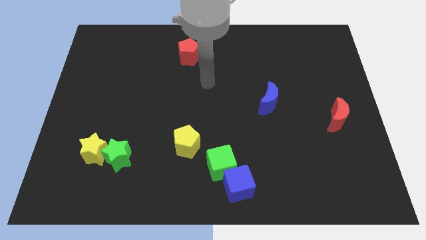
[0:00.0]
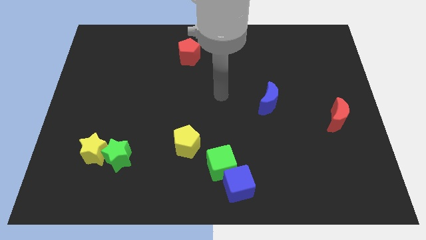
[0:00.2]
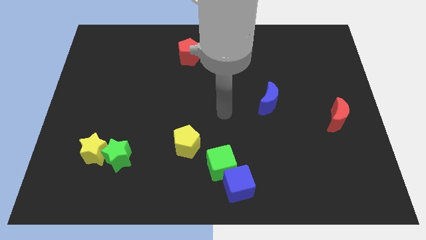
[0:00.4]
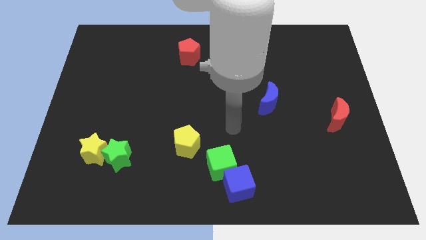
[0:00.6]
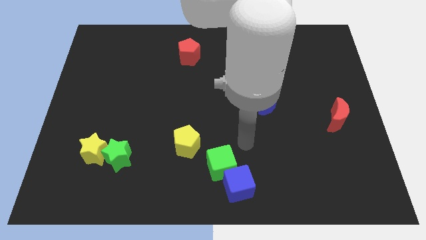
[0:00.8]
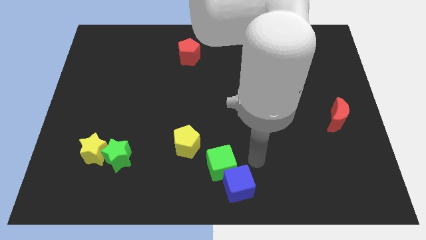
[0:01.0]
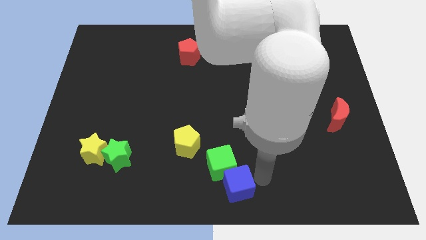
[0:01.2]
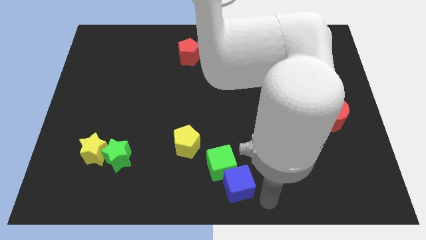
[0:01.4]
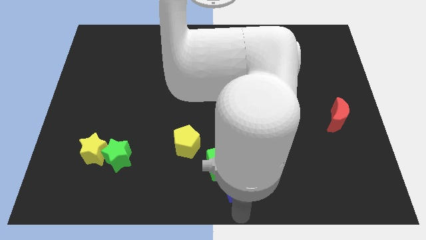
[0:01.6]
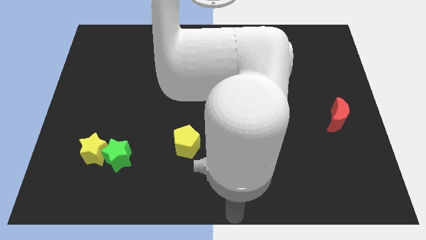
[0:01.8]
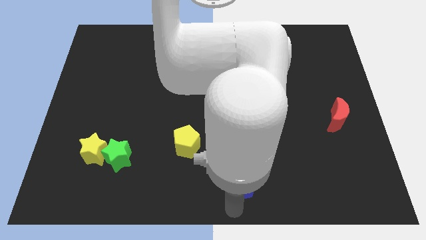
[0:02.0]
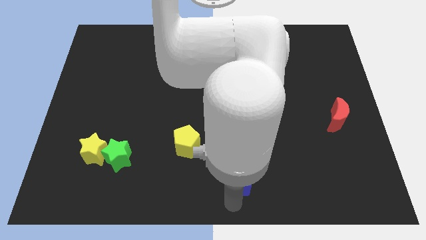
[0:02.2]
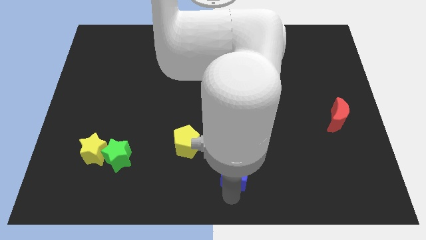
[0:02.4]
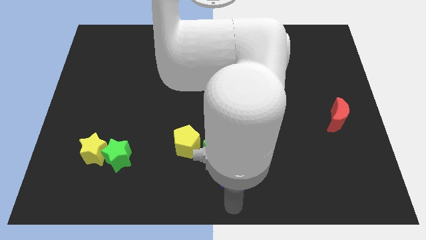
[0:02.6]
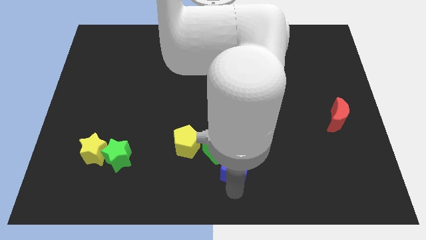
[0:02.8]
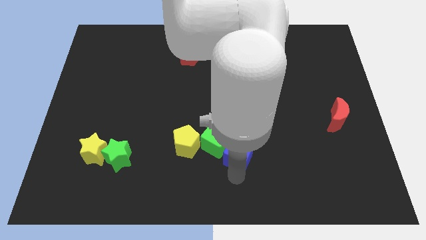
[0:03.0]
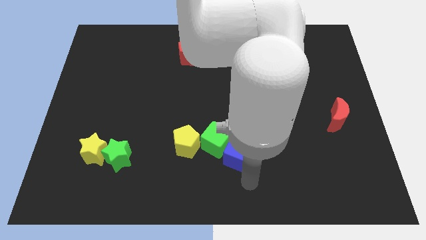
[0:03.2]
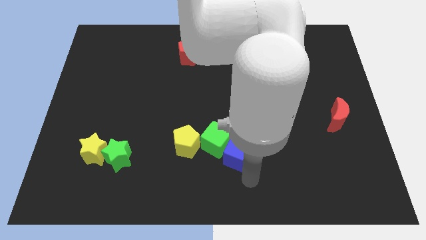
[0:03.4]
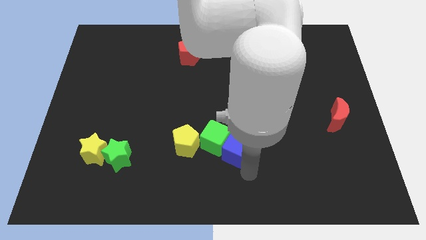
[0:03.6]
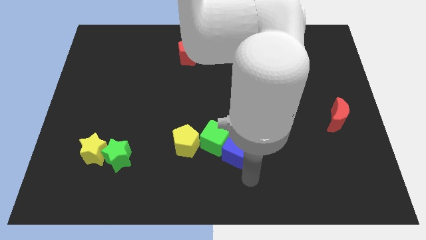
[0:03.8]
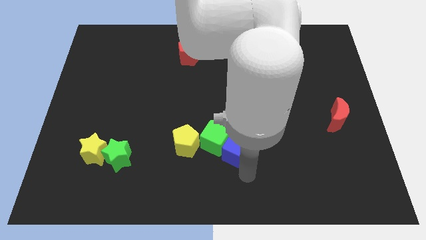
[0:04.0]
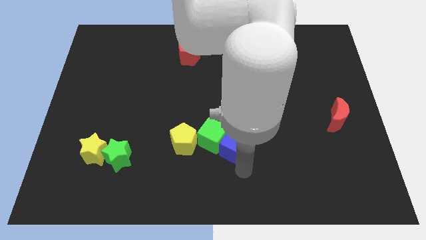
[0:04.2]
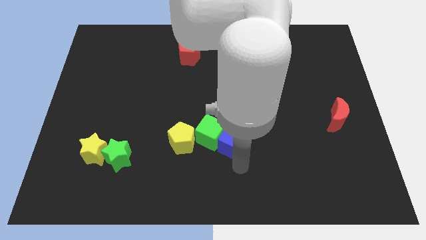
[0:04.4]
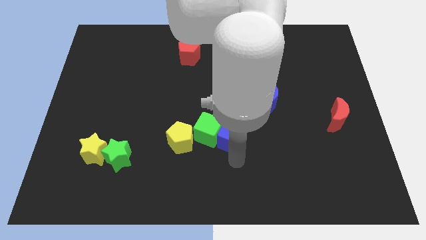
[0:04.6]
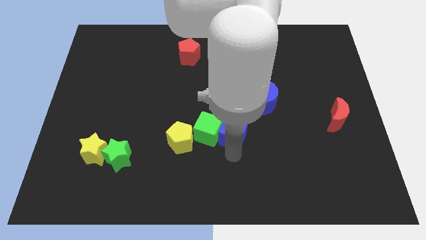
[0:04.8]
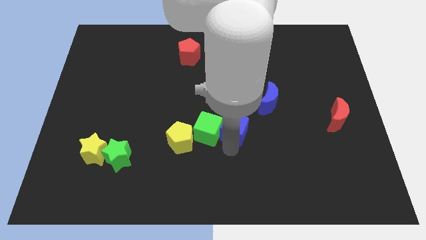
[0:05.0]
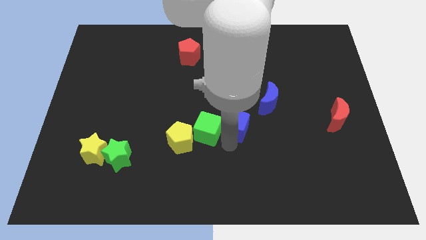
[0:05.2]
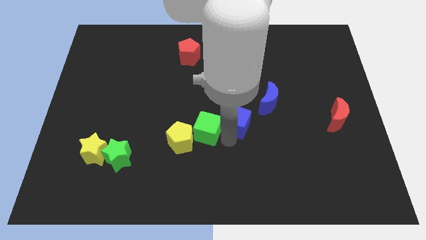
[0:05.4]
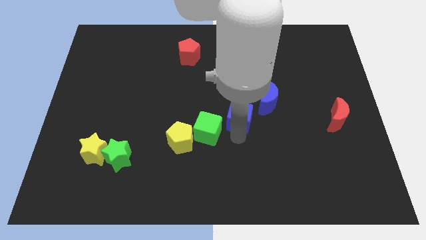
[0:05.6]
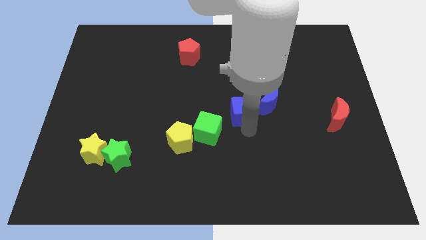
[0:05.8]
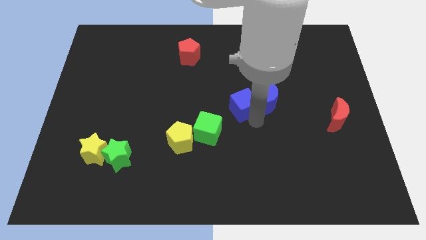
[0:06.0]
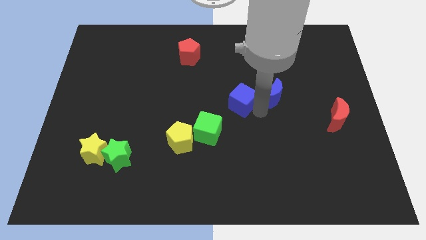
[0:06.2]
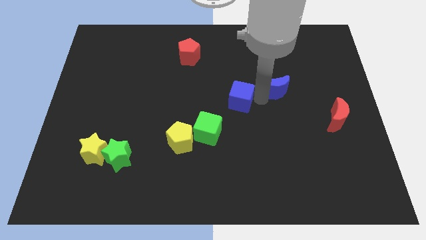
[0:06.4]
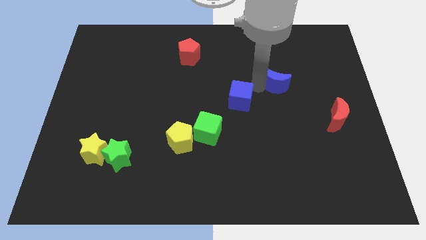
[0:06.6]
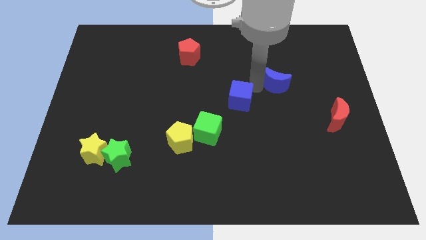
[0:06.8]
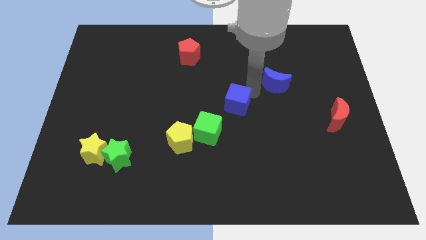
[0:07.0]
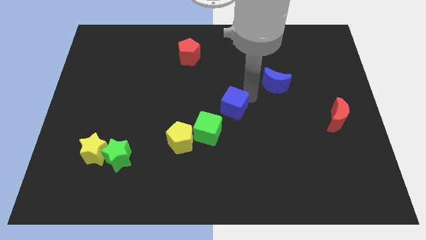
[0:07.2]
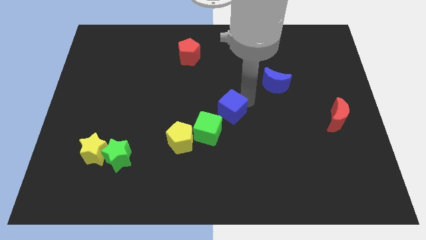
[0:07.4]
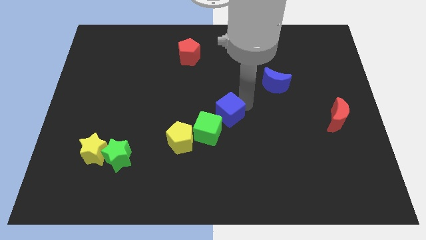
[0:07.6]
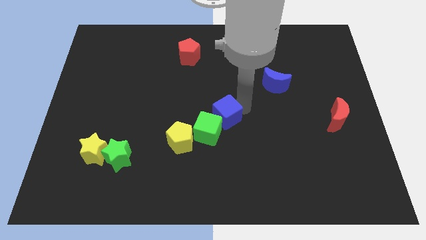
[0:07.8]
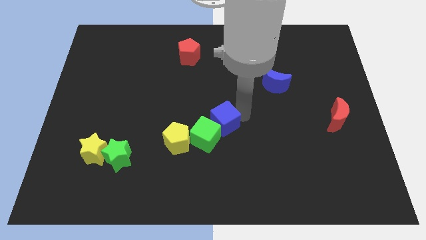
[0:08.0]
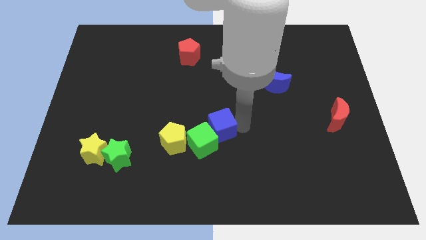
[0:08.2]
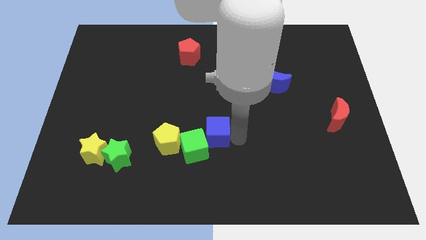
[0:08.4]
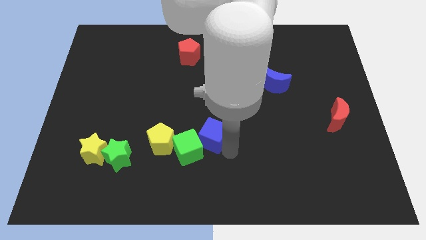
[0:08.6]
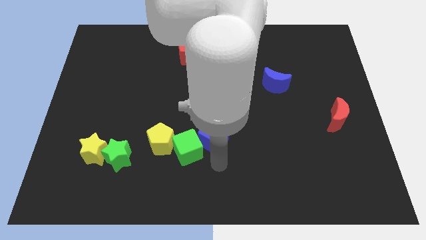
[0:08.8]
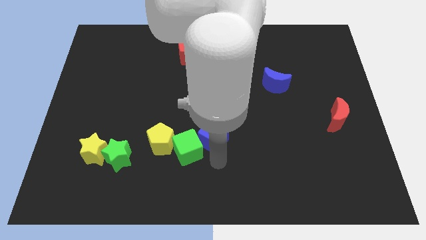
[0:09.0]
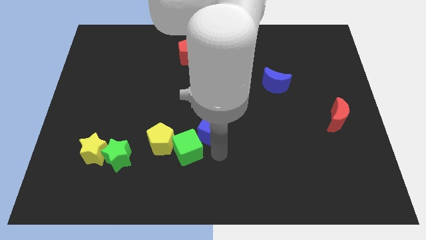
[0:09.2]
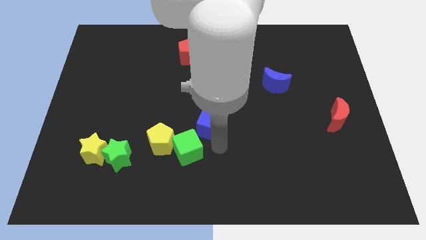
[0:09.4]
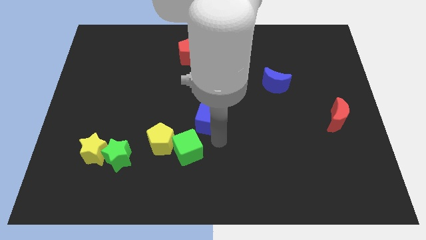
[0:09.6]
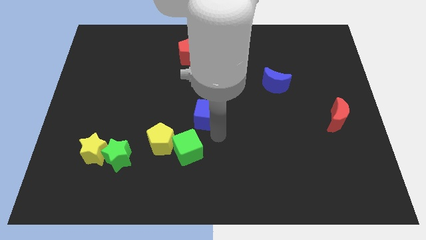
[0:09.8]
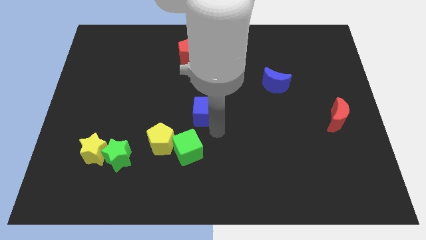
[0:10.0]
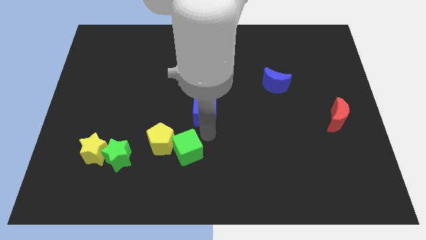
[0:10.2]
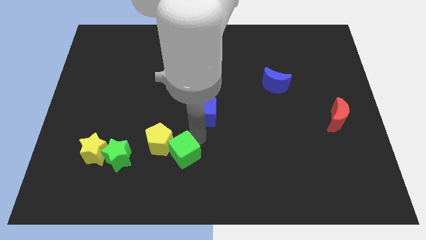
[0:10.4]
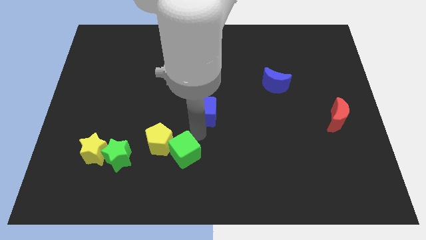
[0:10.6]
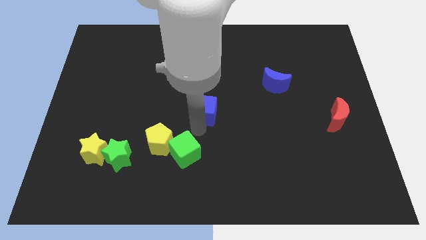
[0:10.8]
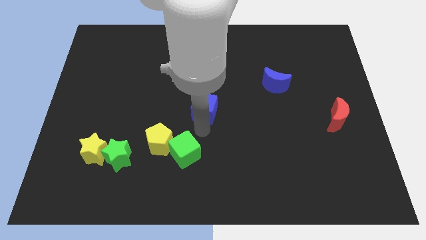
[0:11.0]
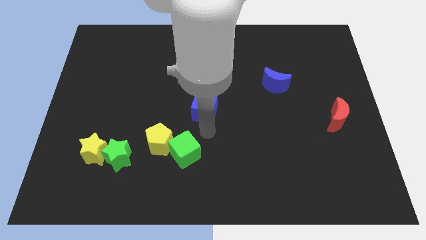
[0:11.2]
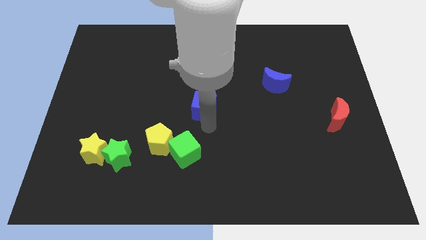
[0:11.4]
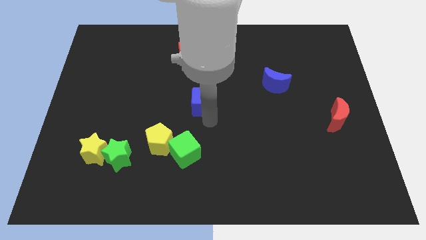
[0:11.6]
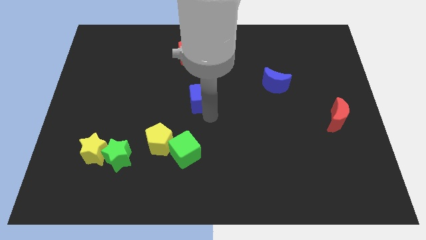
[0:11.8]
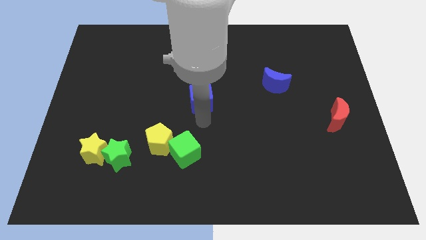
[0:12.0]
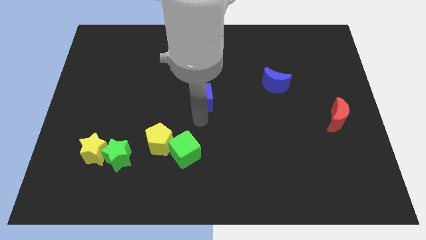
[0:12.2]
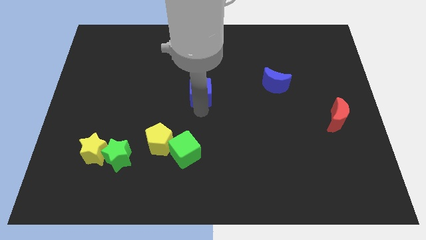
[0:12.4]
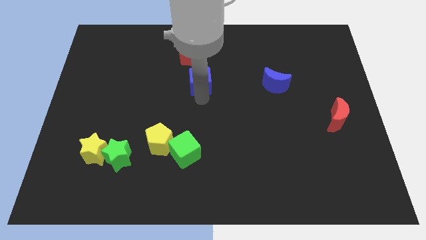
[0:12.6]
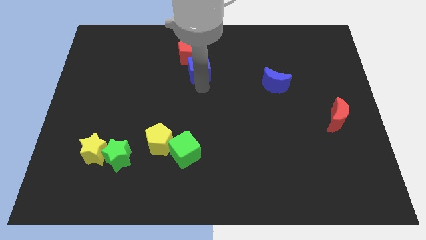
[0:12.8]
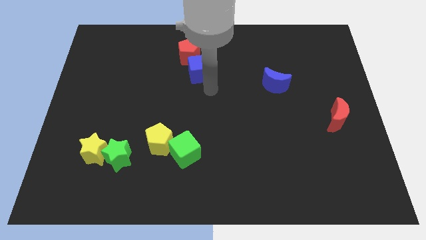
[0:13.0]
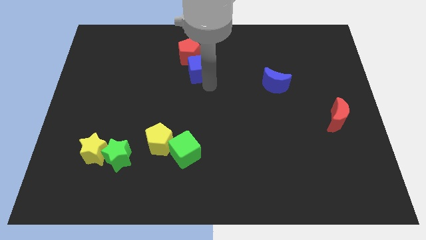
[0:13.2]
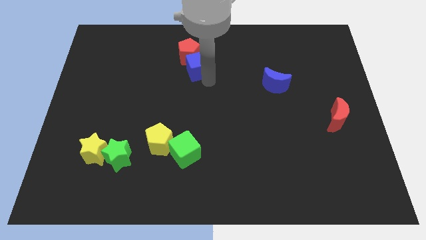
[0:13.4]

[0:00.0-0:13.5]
push the blue cube towards the red pentagon
